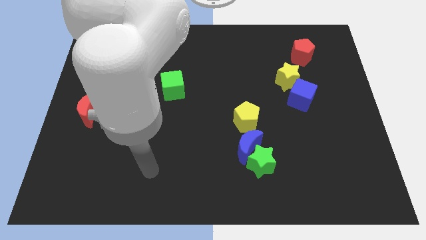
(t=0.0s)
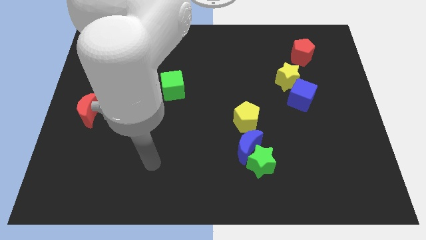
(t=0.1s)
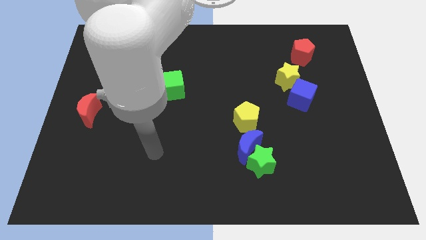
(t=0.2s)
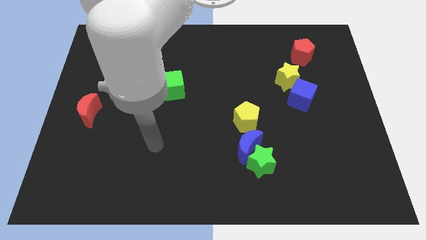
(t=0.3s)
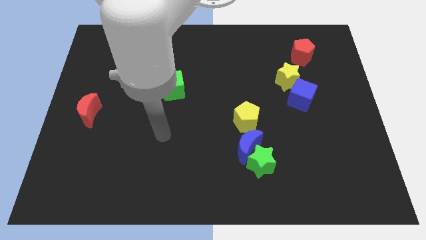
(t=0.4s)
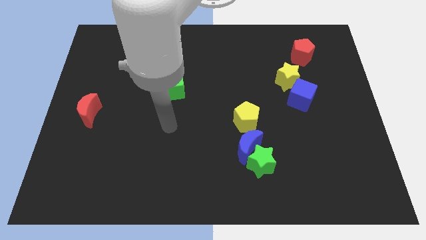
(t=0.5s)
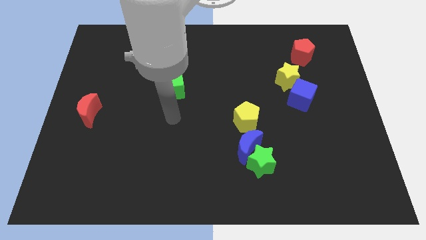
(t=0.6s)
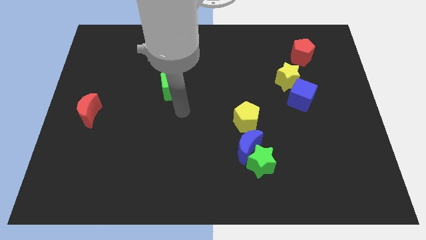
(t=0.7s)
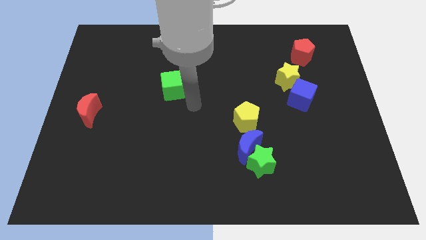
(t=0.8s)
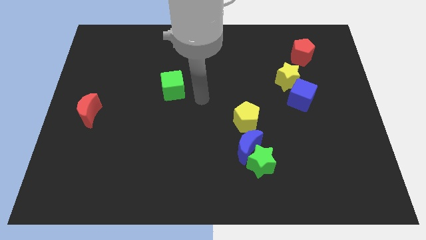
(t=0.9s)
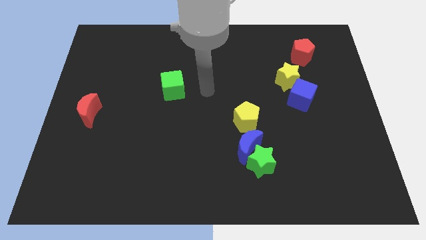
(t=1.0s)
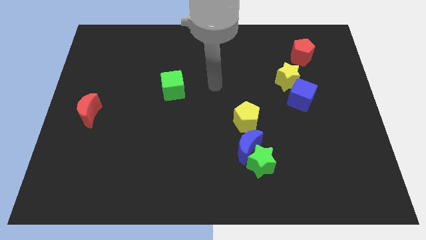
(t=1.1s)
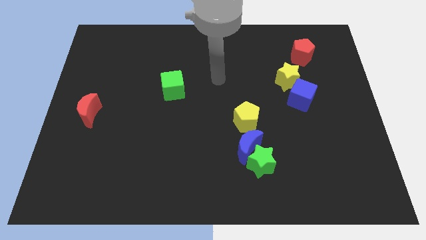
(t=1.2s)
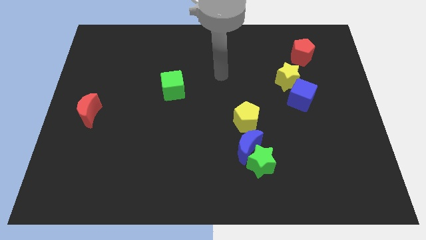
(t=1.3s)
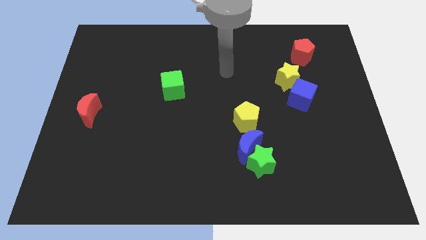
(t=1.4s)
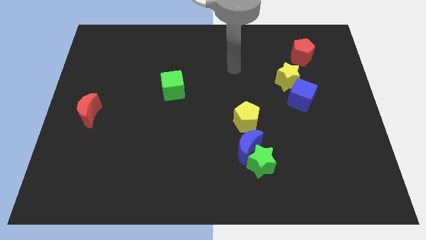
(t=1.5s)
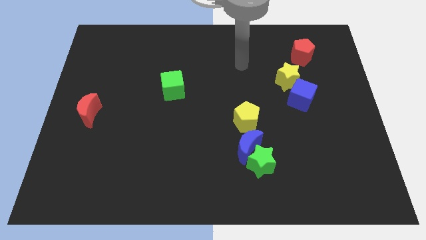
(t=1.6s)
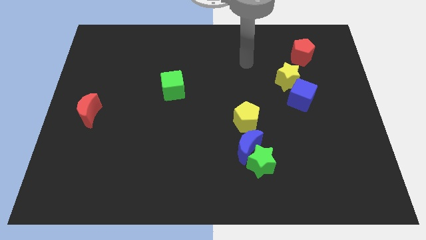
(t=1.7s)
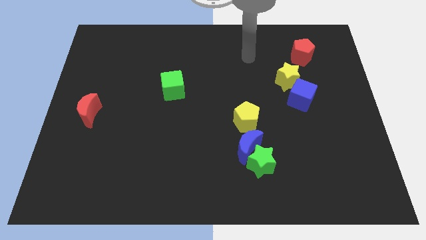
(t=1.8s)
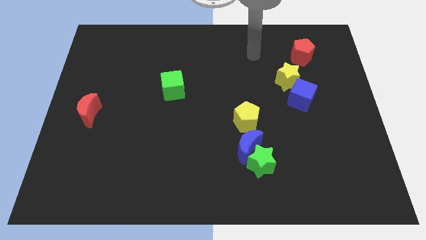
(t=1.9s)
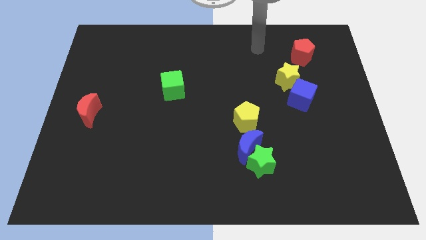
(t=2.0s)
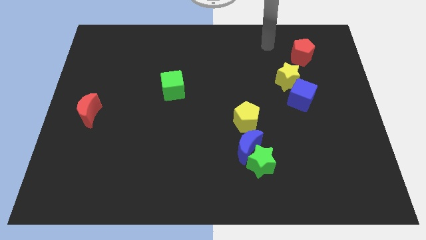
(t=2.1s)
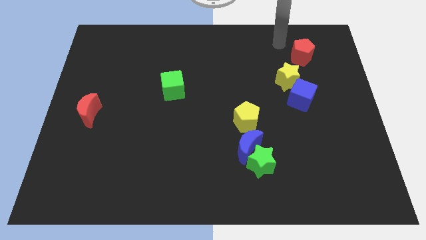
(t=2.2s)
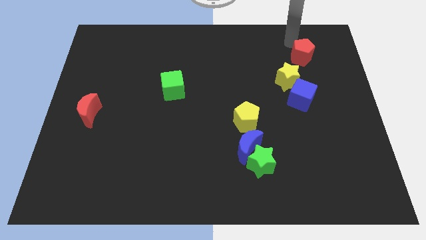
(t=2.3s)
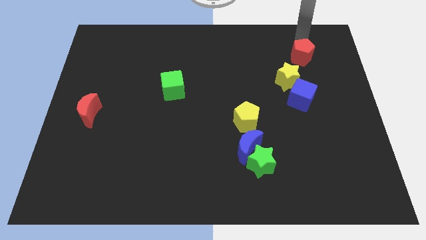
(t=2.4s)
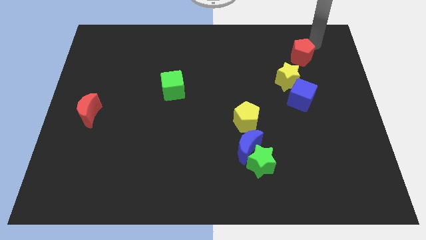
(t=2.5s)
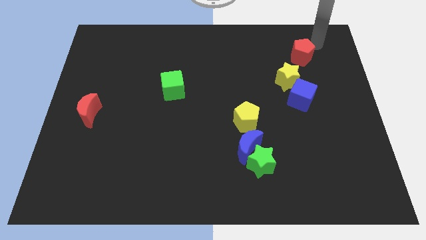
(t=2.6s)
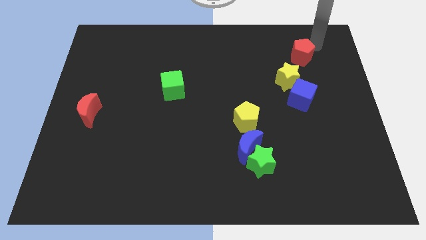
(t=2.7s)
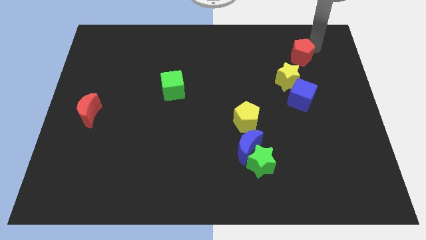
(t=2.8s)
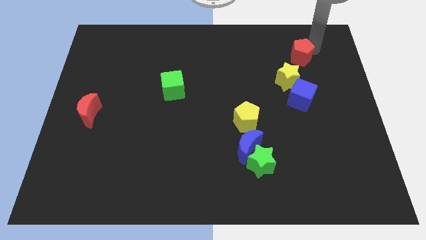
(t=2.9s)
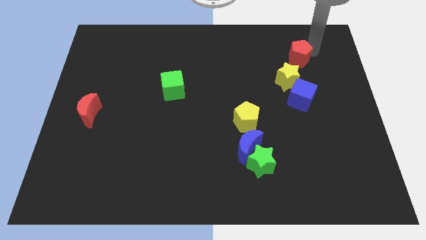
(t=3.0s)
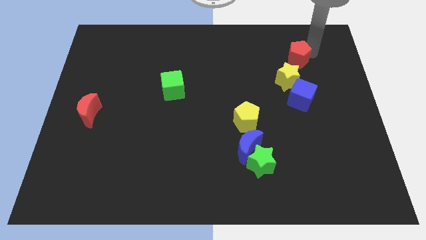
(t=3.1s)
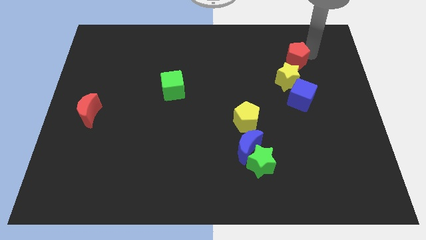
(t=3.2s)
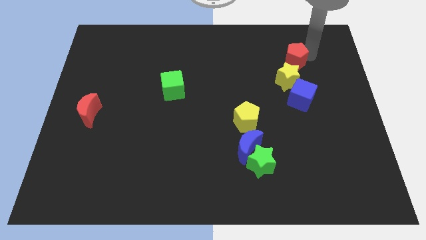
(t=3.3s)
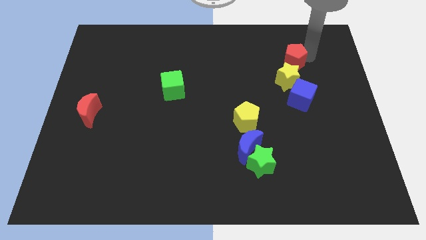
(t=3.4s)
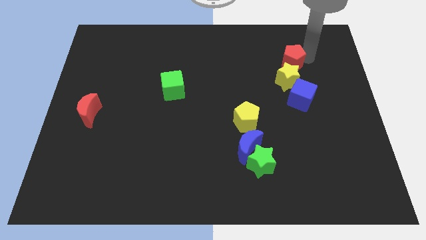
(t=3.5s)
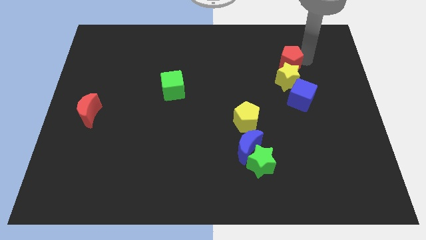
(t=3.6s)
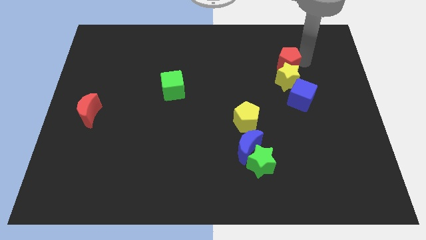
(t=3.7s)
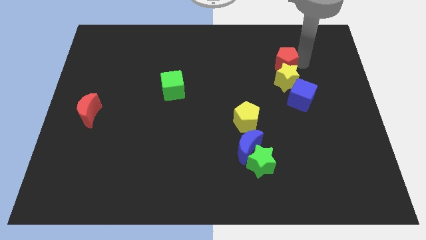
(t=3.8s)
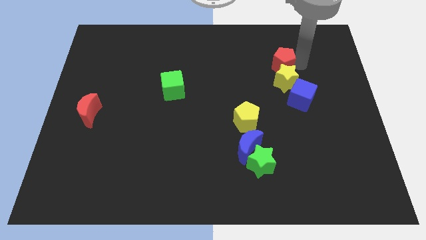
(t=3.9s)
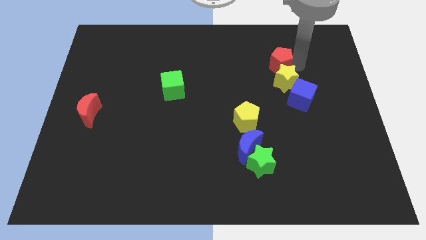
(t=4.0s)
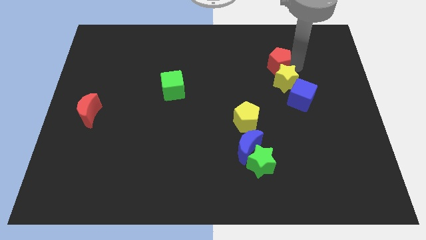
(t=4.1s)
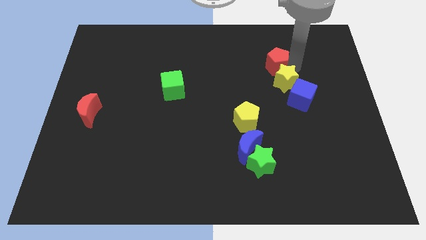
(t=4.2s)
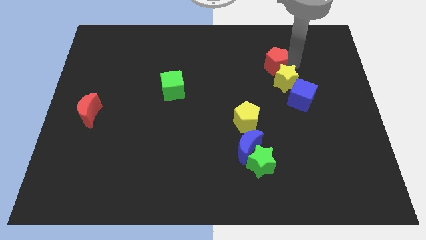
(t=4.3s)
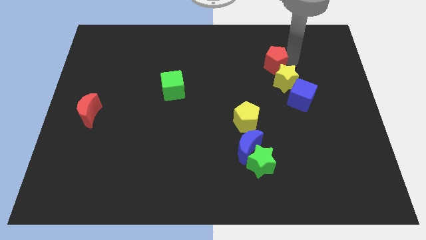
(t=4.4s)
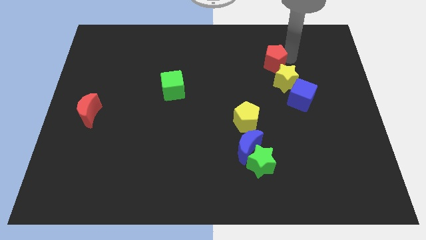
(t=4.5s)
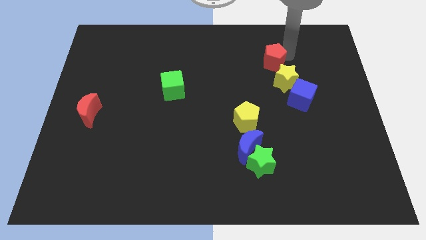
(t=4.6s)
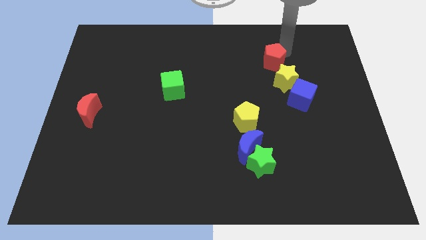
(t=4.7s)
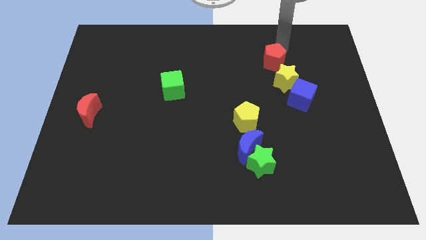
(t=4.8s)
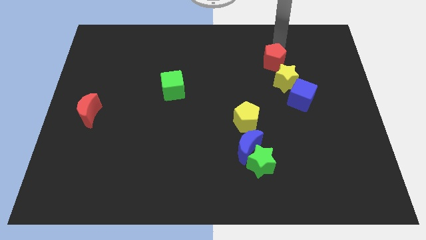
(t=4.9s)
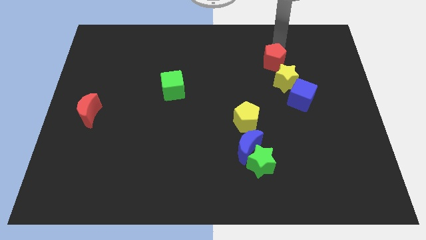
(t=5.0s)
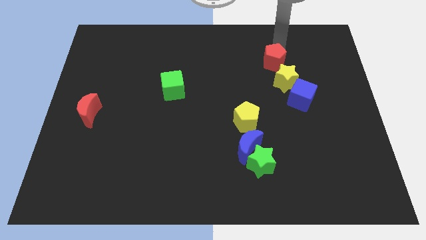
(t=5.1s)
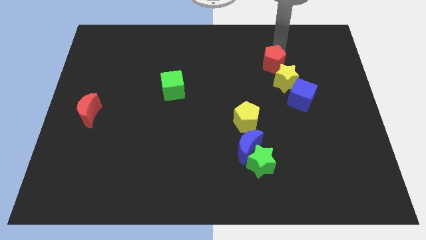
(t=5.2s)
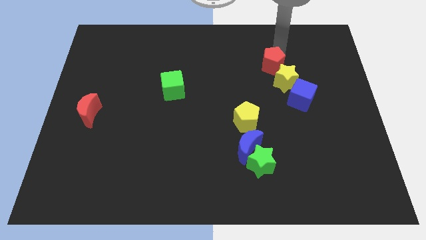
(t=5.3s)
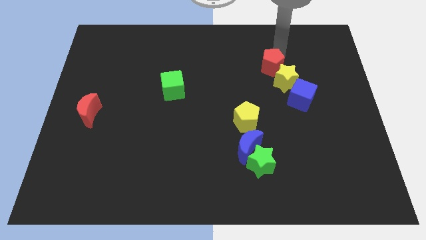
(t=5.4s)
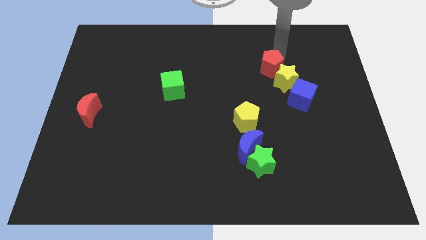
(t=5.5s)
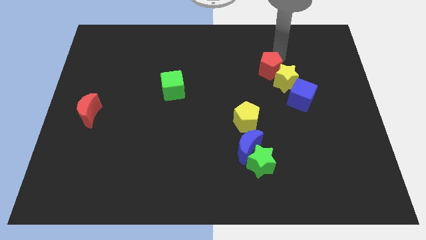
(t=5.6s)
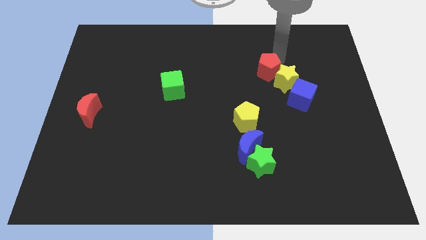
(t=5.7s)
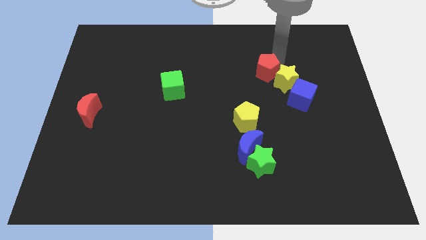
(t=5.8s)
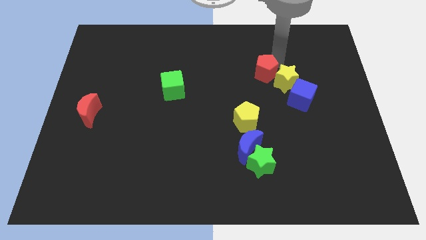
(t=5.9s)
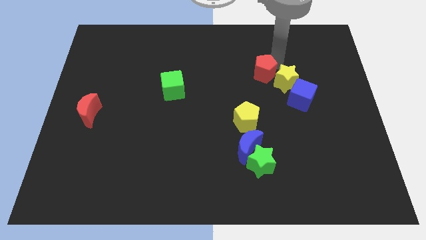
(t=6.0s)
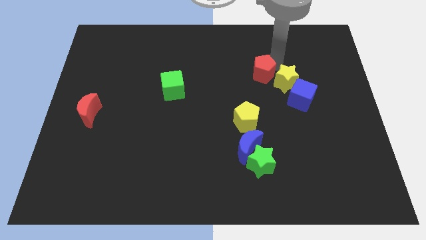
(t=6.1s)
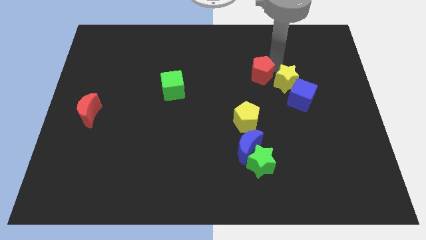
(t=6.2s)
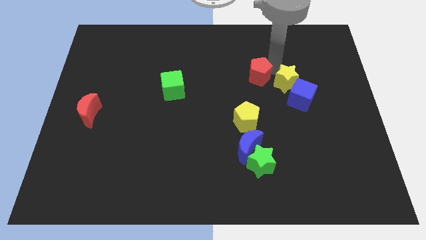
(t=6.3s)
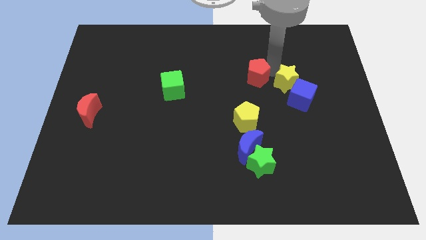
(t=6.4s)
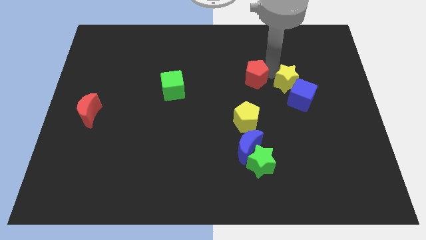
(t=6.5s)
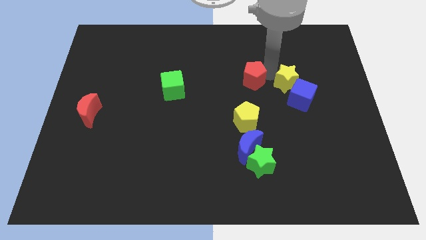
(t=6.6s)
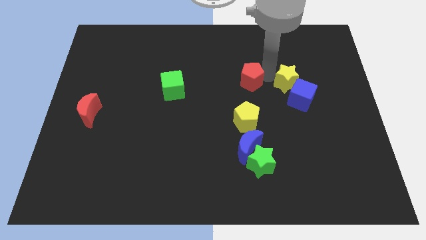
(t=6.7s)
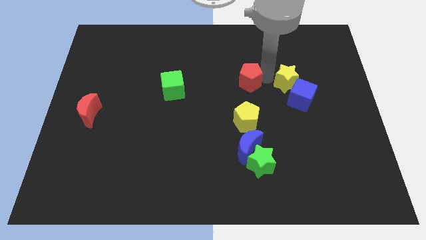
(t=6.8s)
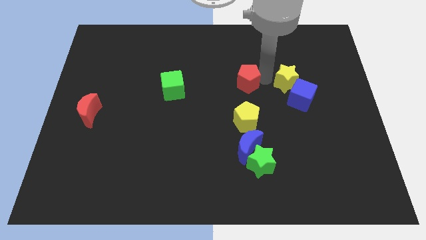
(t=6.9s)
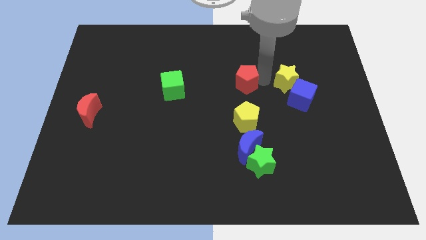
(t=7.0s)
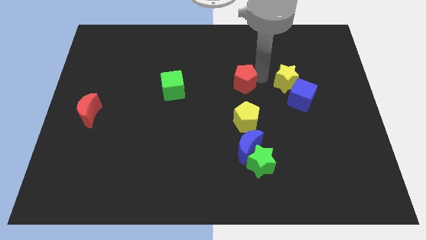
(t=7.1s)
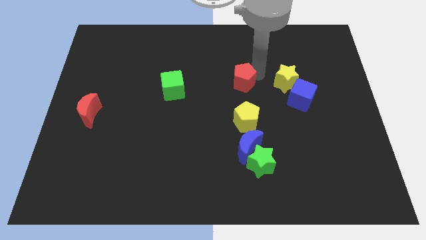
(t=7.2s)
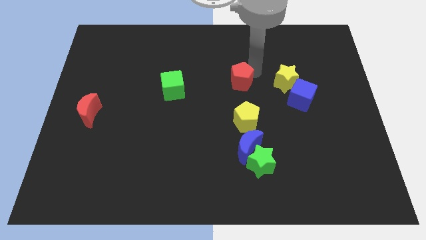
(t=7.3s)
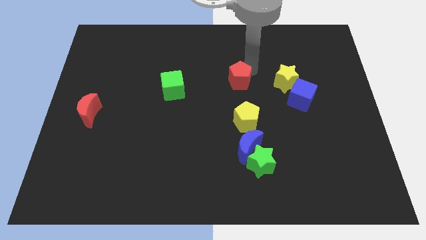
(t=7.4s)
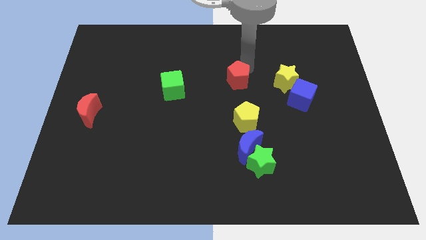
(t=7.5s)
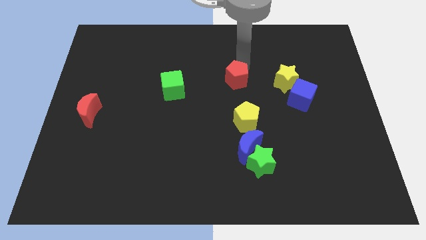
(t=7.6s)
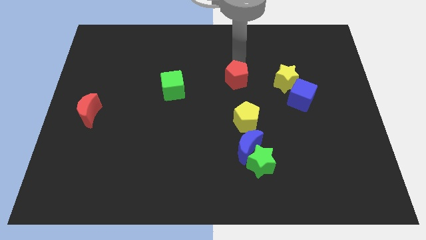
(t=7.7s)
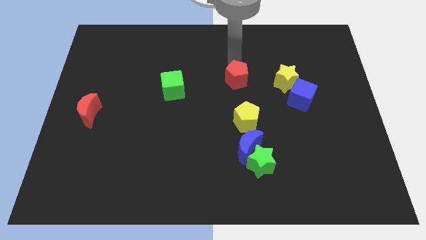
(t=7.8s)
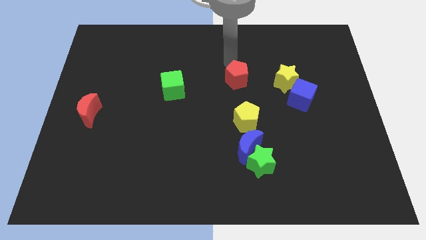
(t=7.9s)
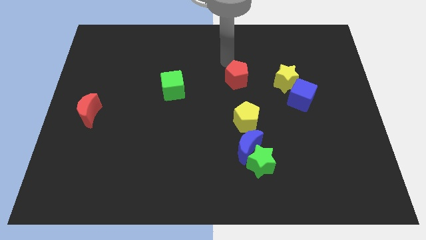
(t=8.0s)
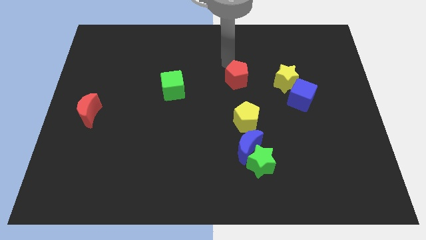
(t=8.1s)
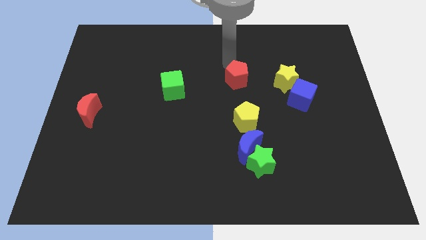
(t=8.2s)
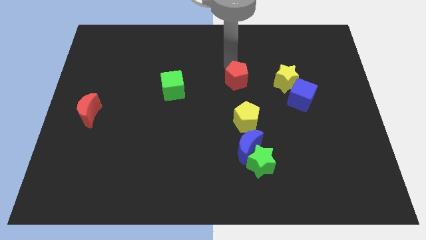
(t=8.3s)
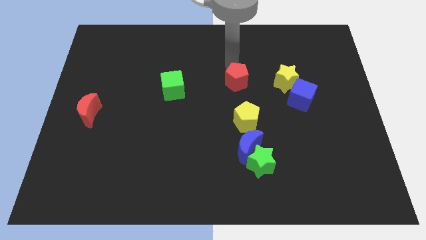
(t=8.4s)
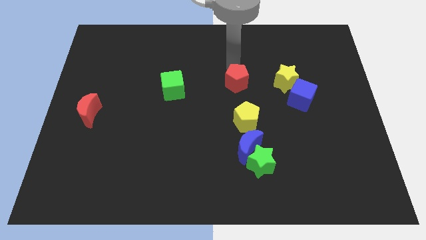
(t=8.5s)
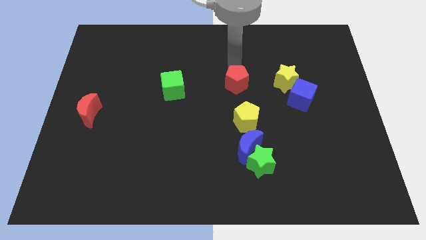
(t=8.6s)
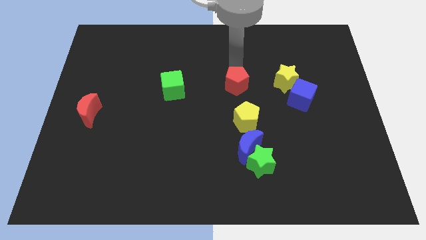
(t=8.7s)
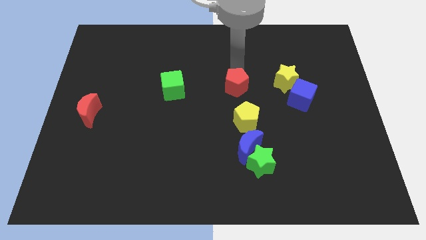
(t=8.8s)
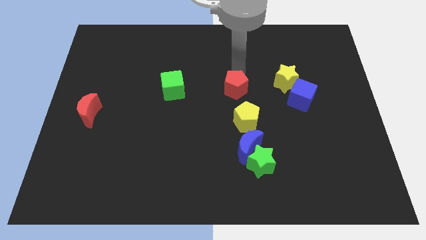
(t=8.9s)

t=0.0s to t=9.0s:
move the red pentagon diagonally downwards and left
